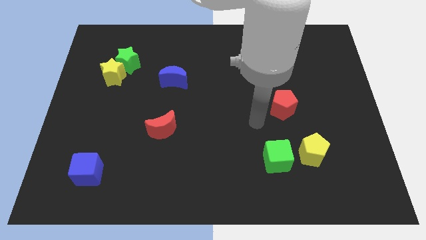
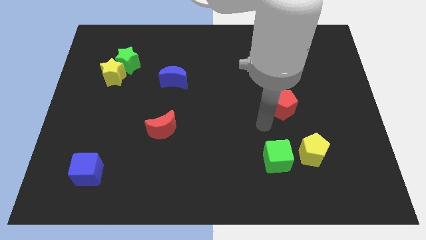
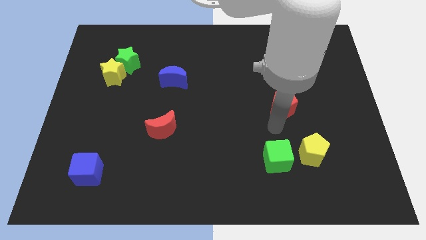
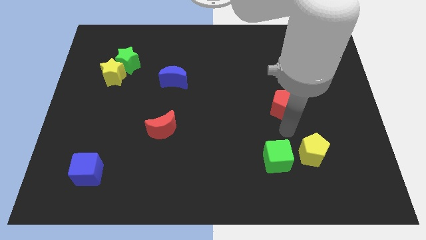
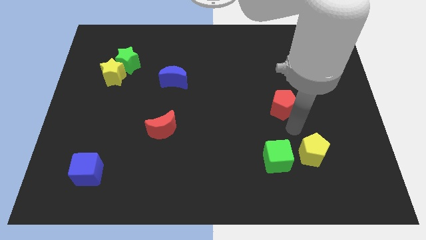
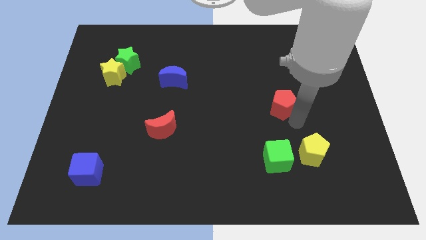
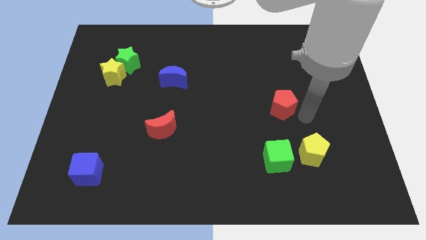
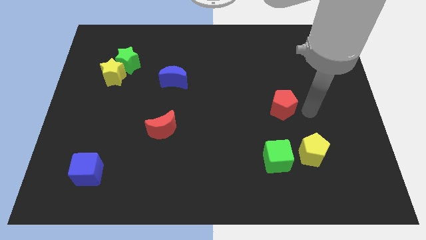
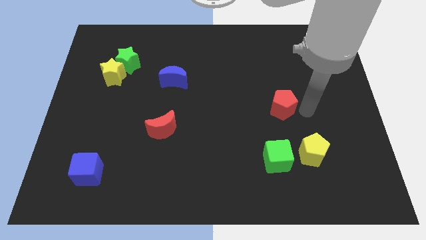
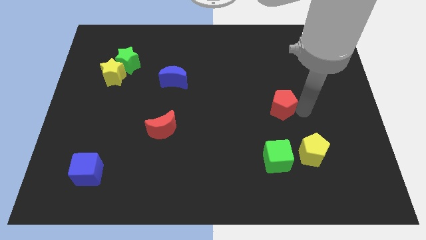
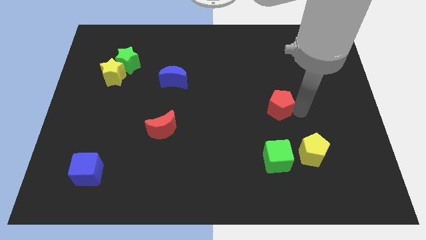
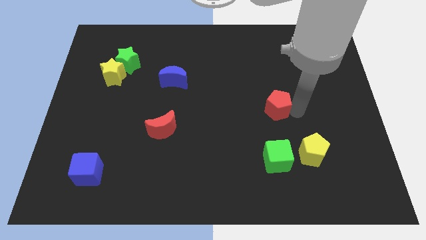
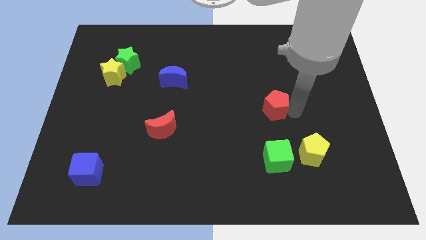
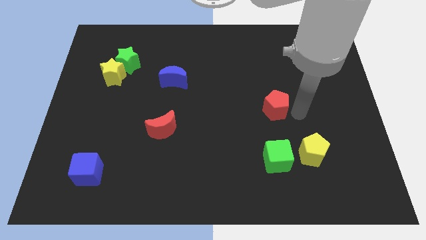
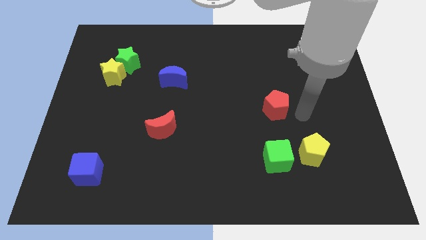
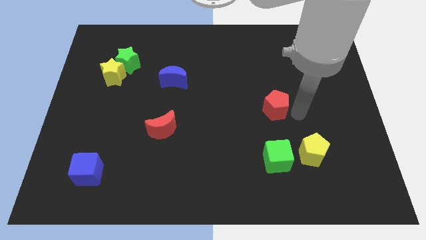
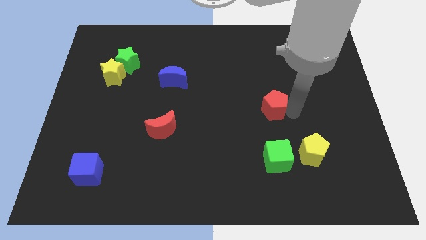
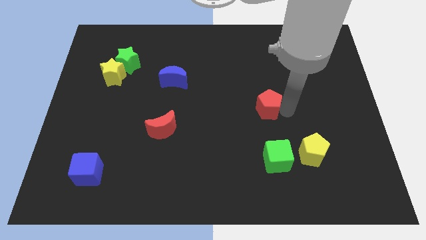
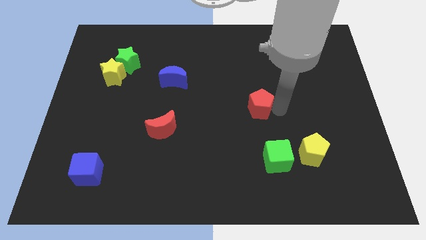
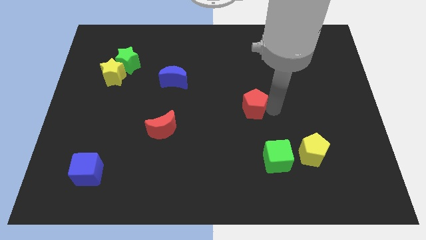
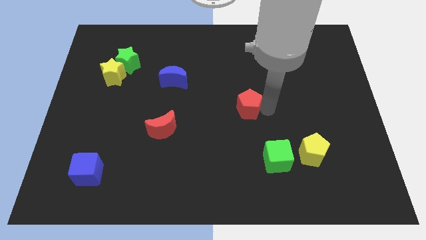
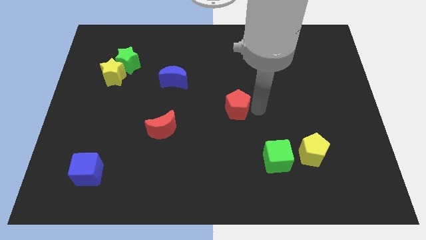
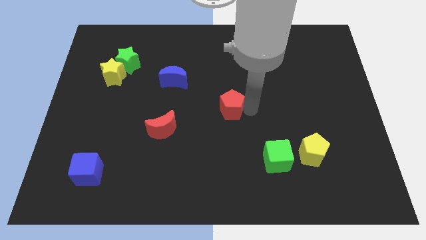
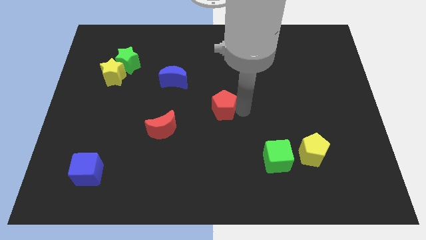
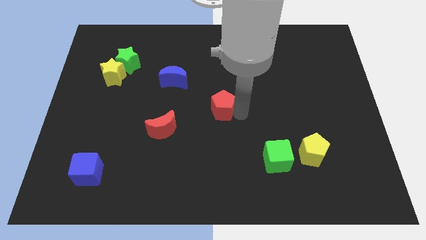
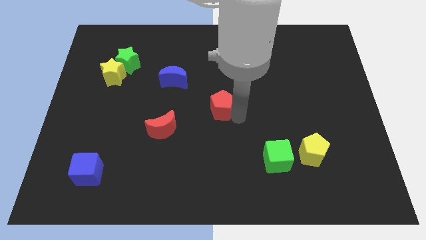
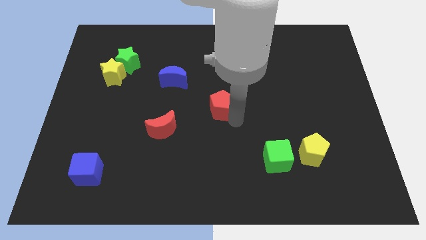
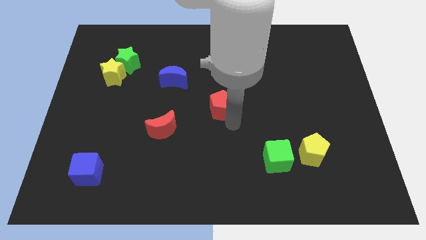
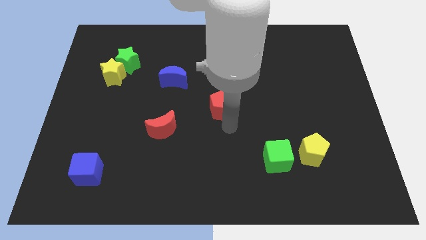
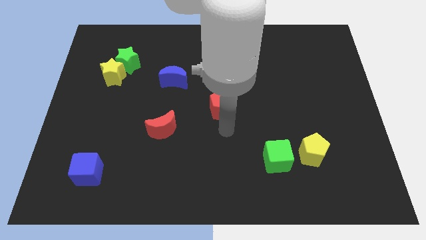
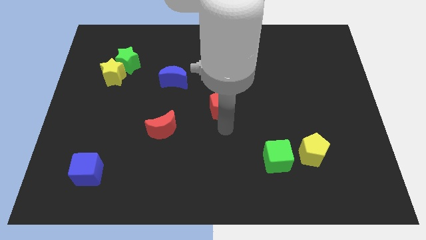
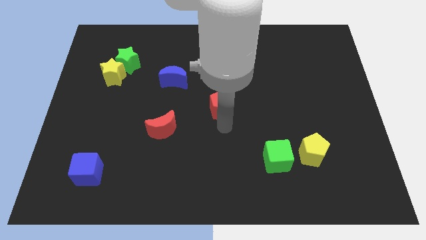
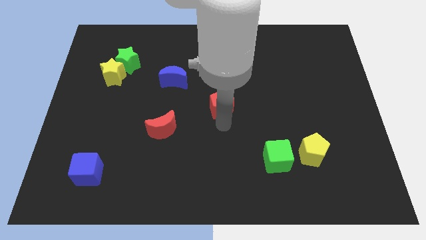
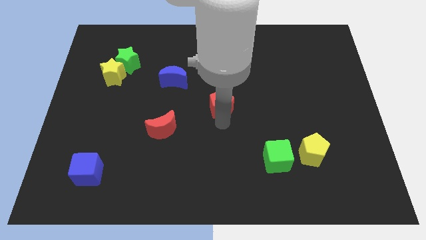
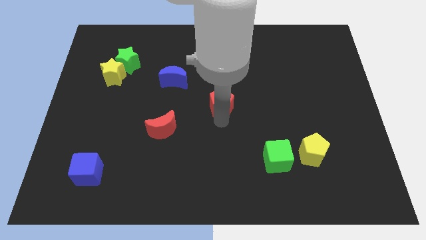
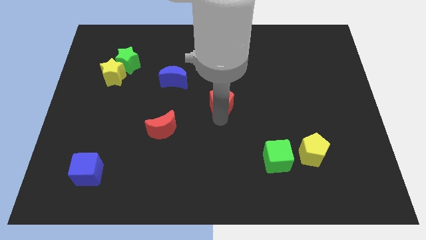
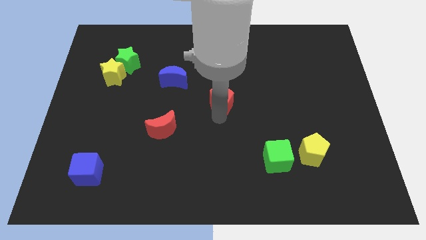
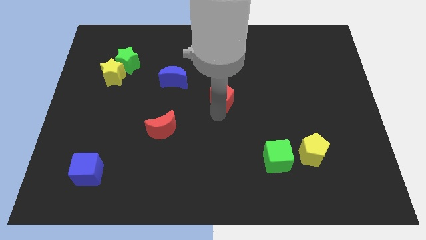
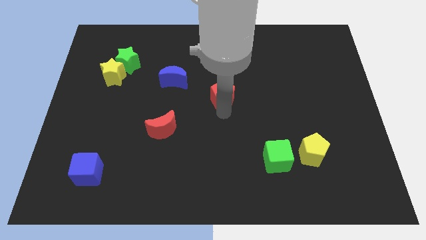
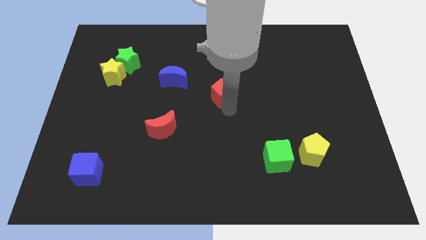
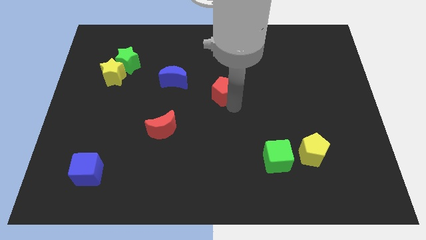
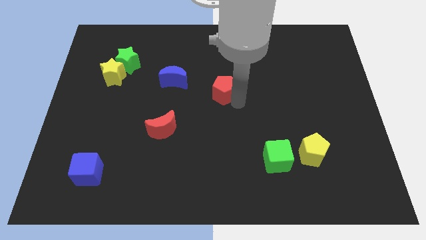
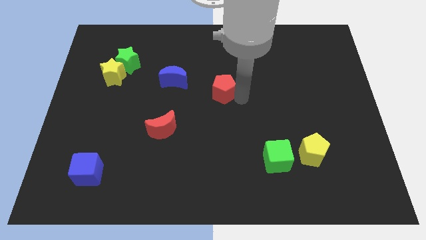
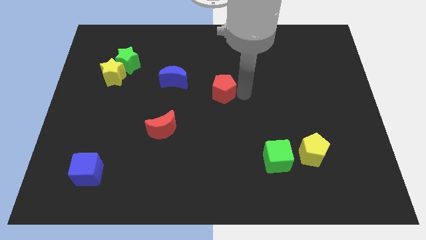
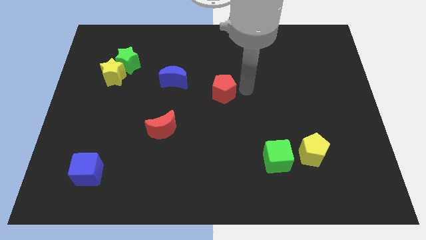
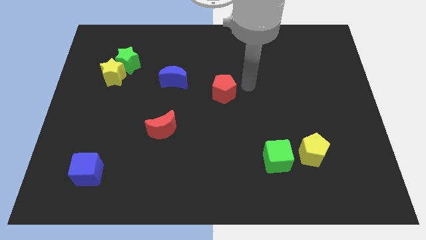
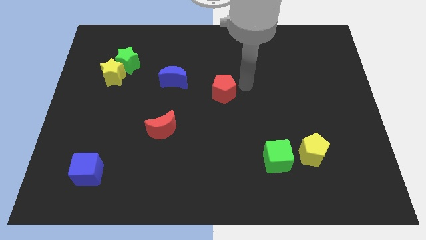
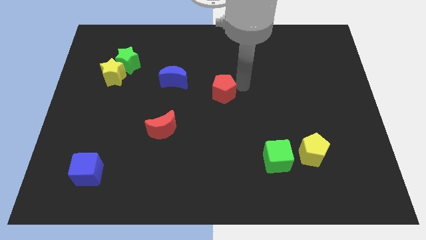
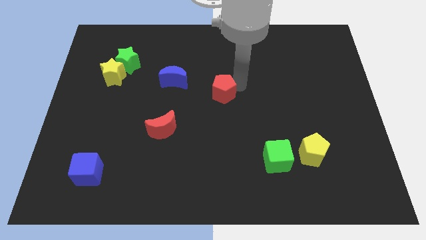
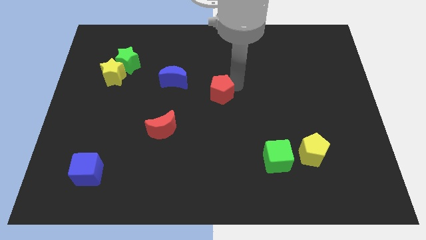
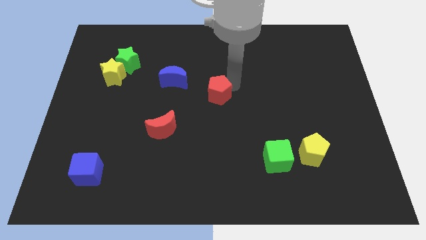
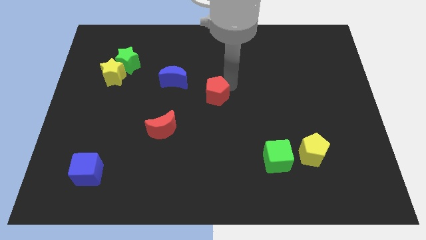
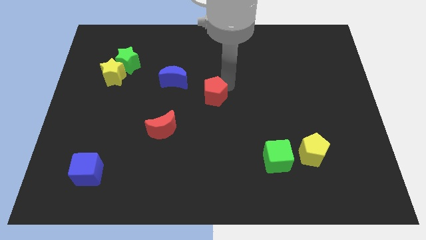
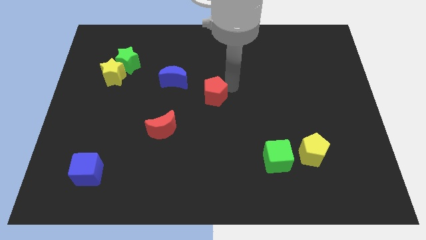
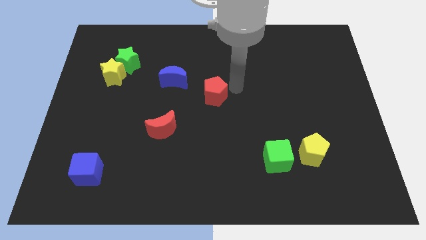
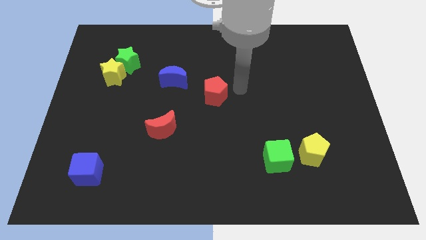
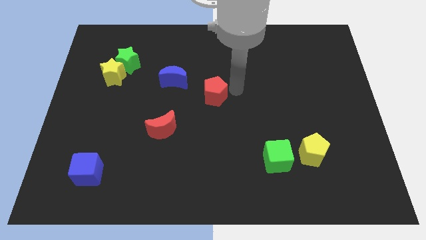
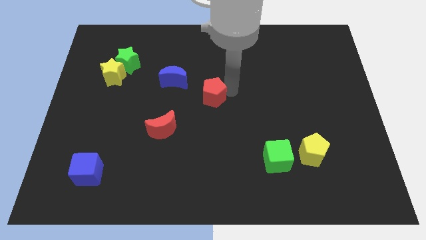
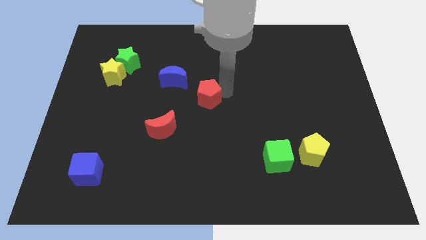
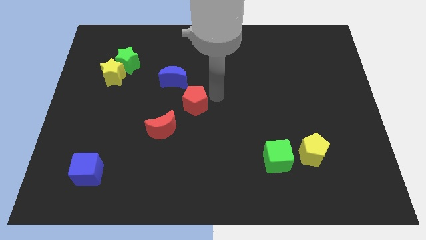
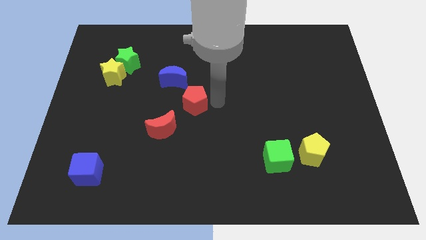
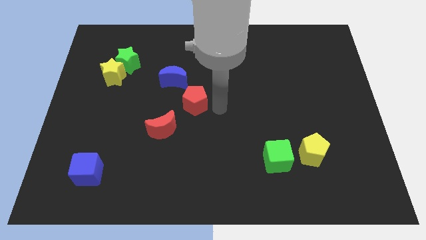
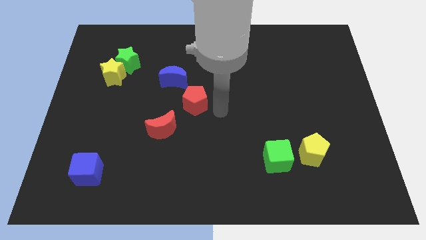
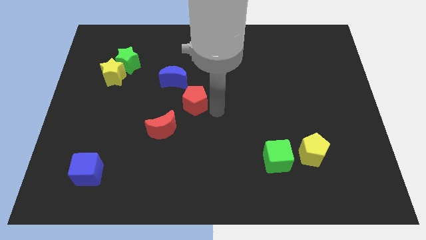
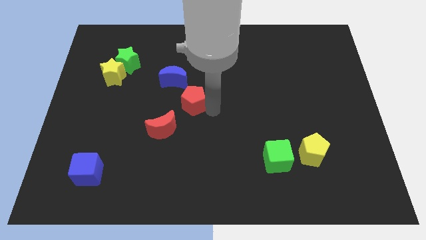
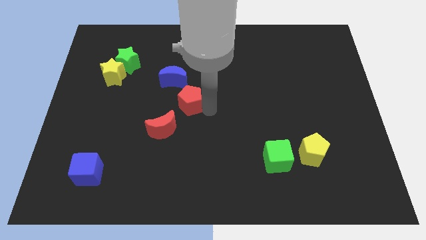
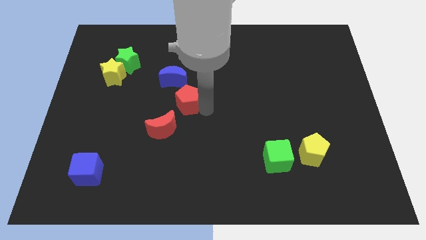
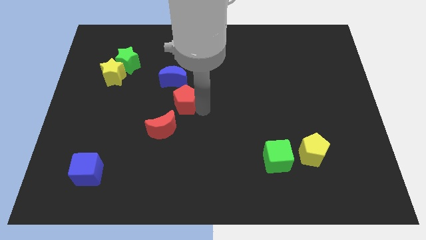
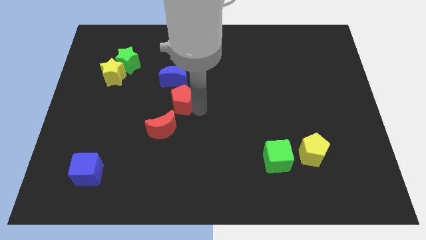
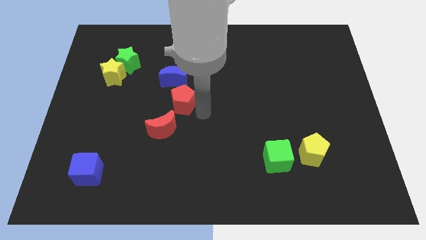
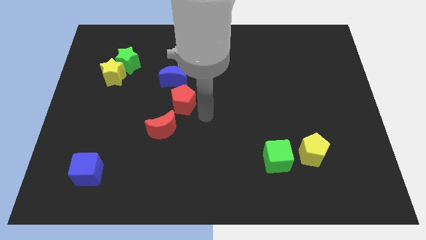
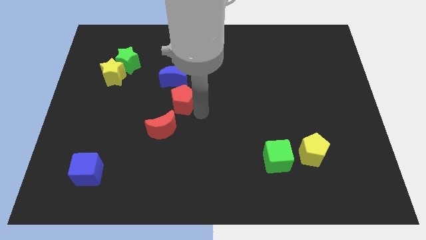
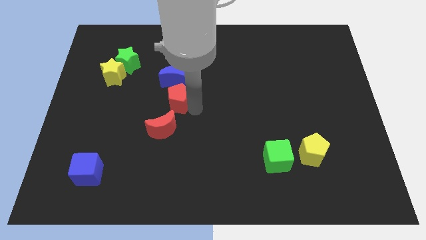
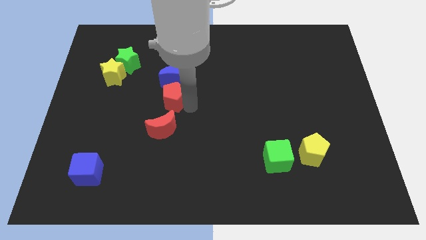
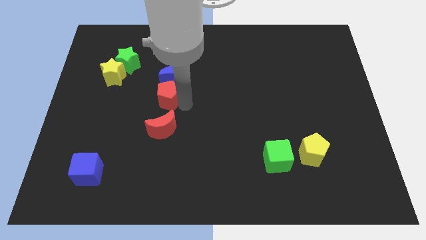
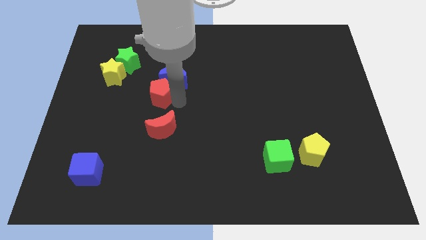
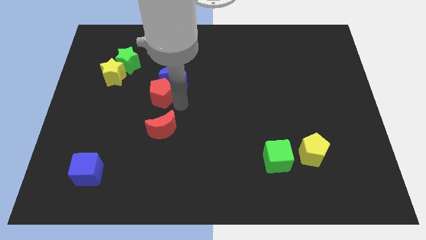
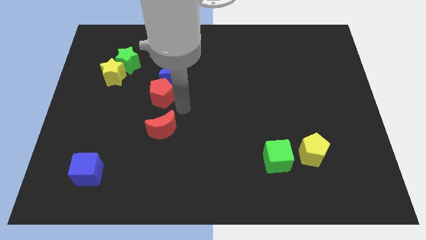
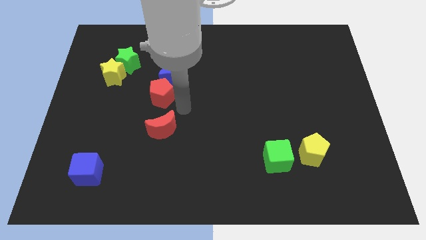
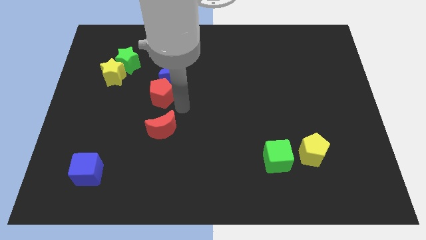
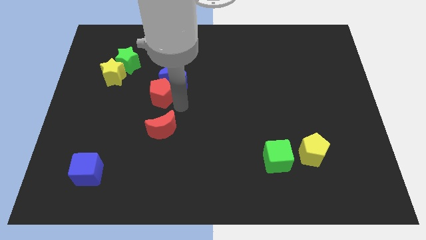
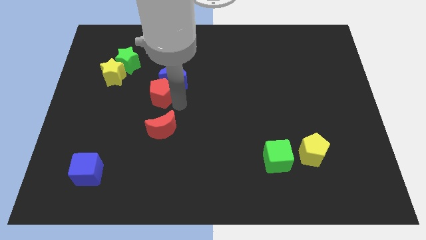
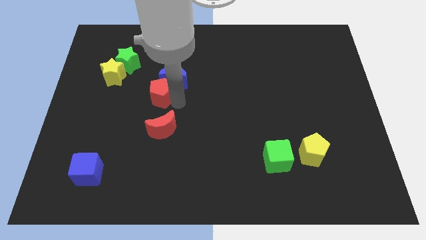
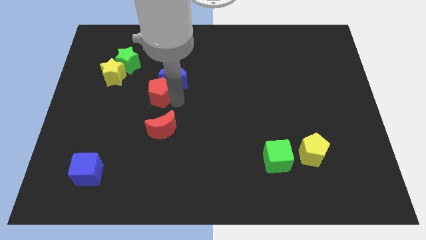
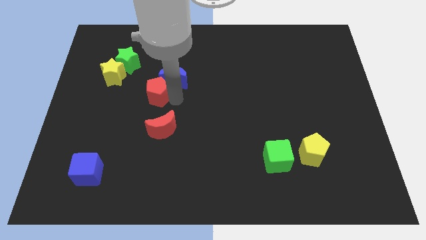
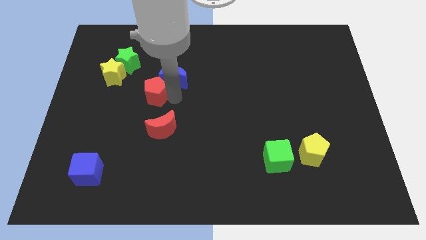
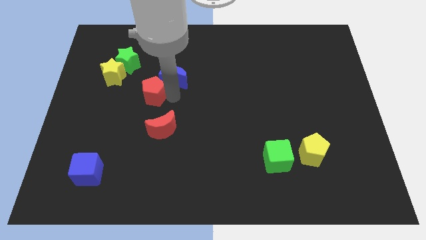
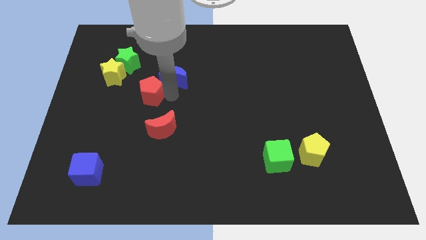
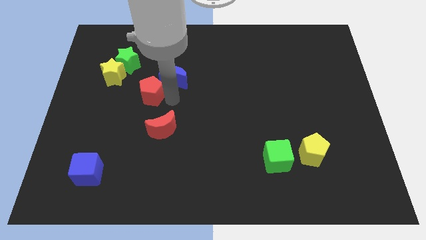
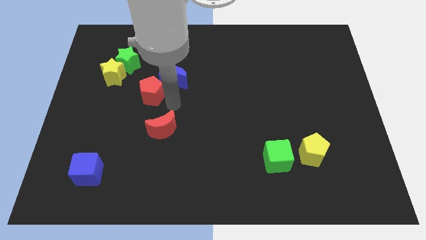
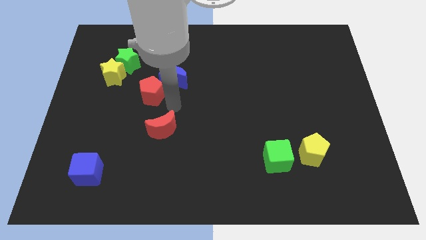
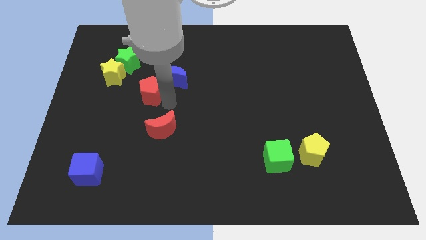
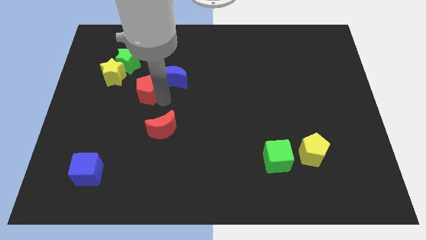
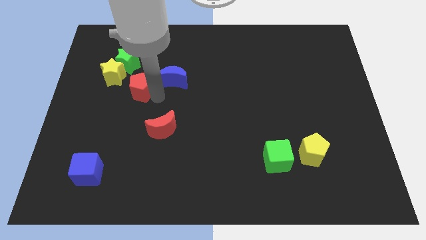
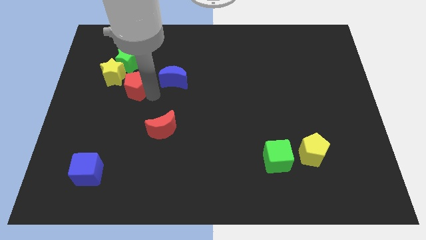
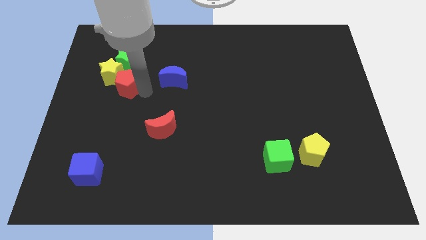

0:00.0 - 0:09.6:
move the red pentagon towards the yellow star
